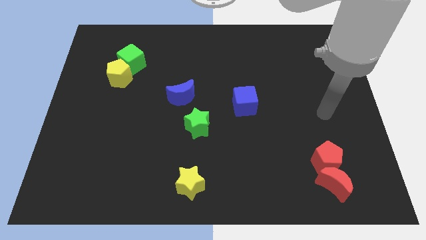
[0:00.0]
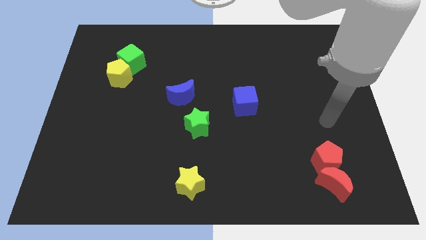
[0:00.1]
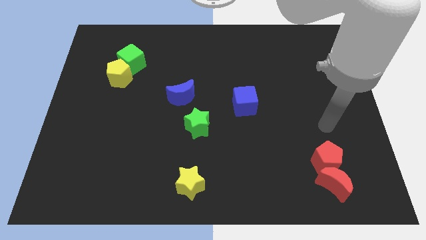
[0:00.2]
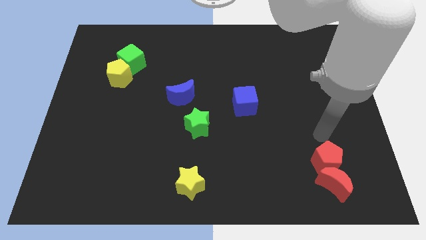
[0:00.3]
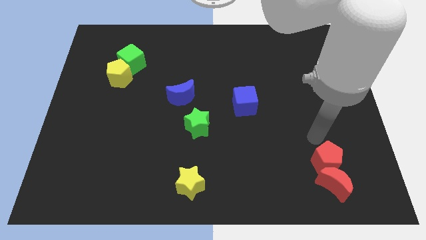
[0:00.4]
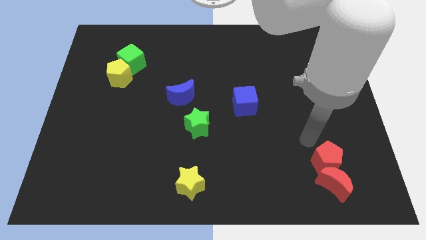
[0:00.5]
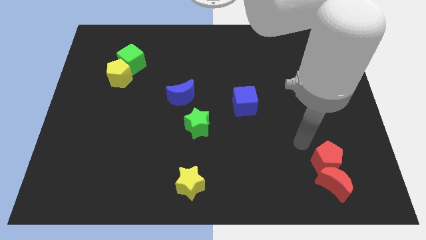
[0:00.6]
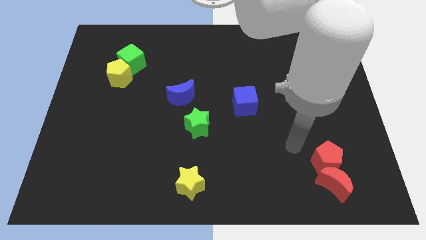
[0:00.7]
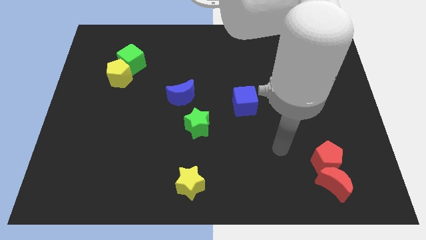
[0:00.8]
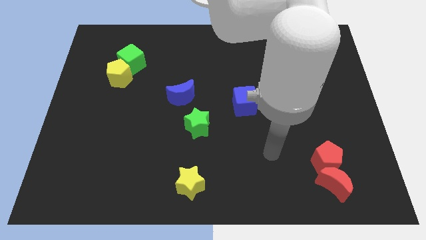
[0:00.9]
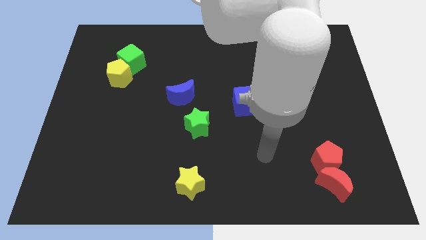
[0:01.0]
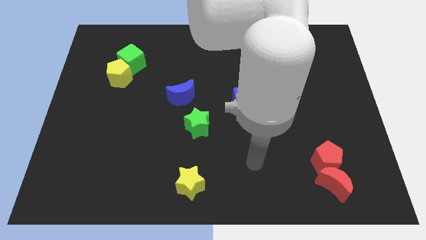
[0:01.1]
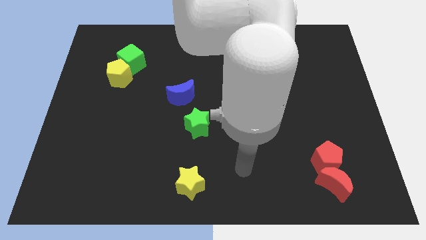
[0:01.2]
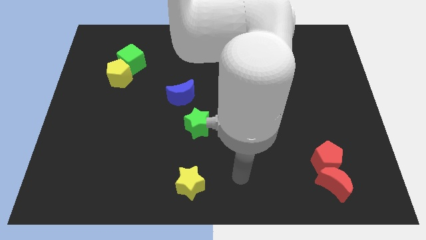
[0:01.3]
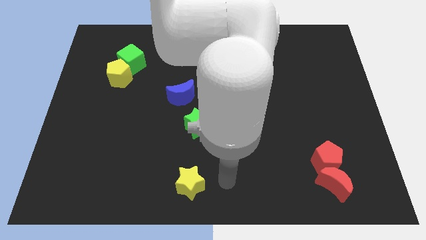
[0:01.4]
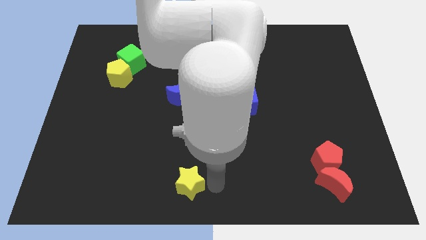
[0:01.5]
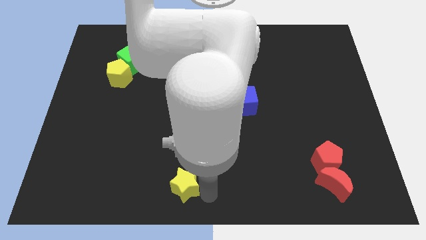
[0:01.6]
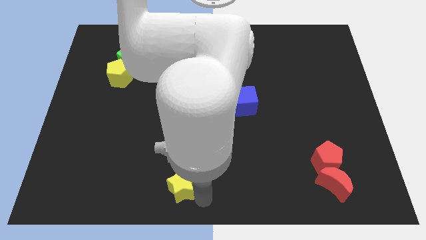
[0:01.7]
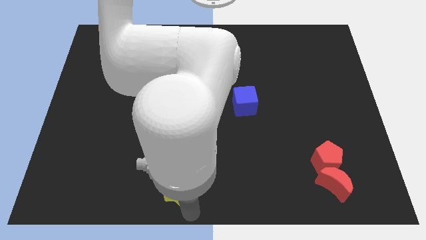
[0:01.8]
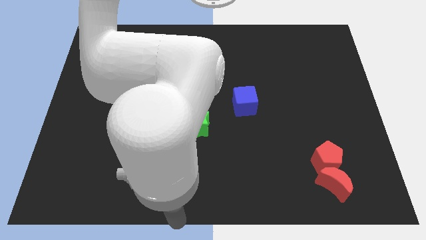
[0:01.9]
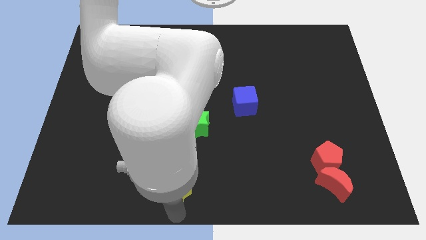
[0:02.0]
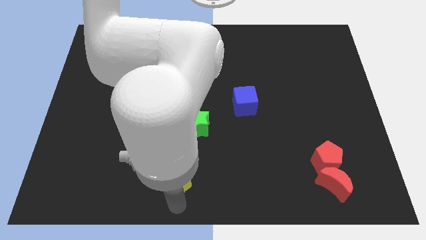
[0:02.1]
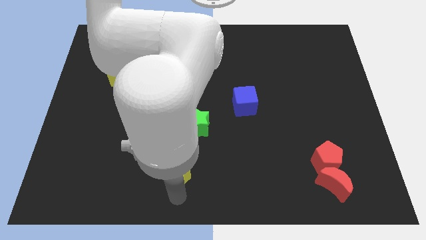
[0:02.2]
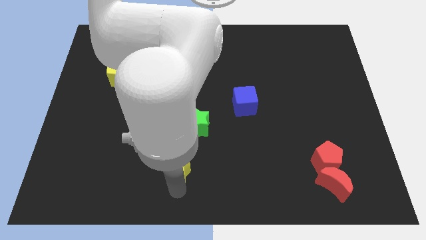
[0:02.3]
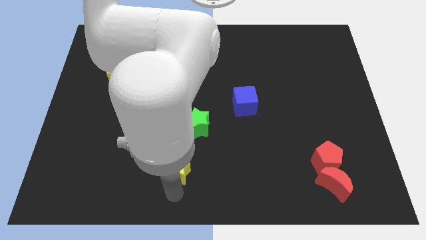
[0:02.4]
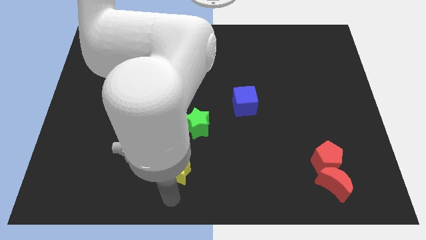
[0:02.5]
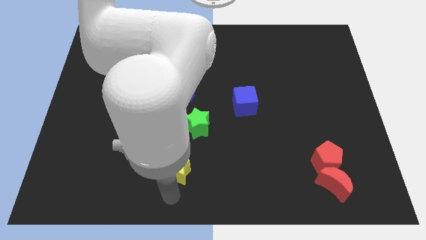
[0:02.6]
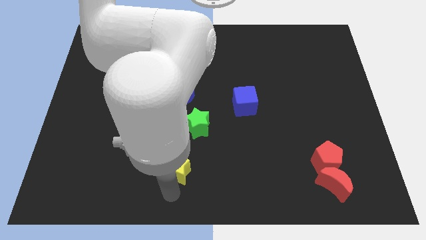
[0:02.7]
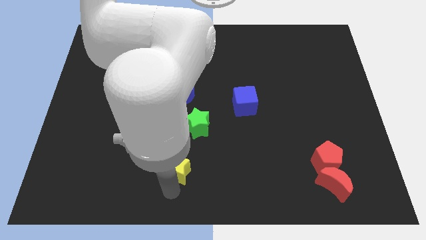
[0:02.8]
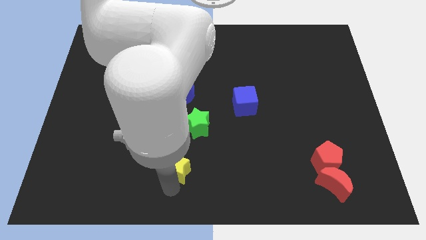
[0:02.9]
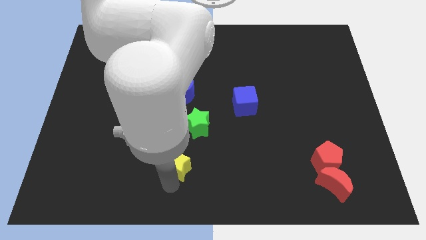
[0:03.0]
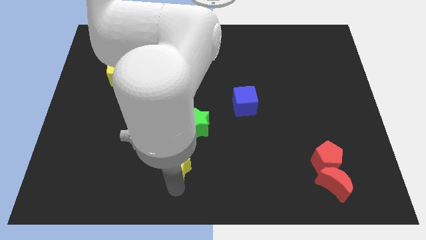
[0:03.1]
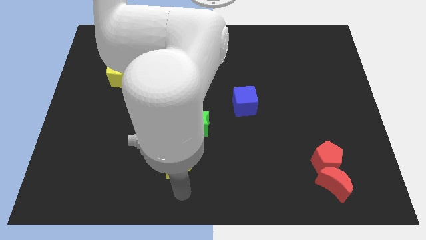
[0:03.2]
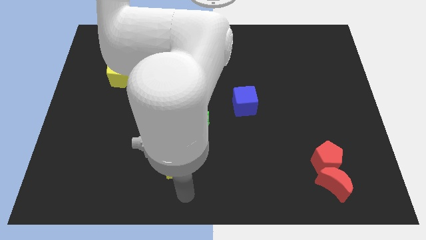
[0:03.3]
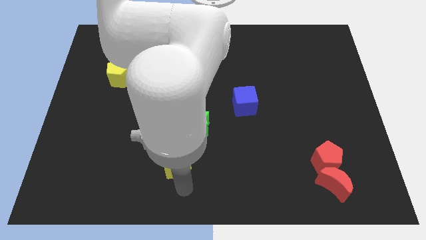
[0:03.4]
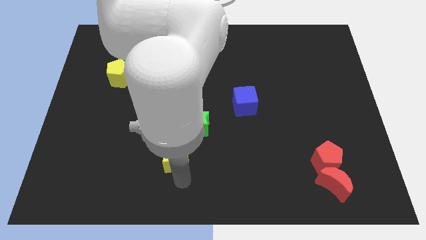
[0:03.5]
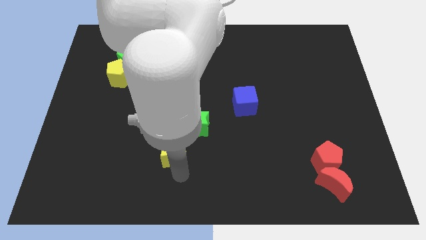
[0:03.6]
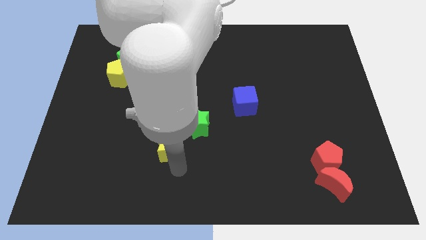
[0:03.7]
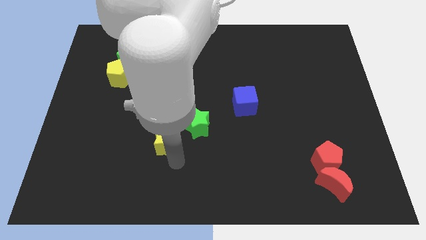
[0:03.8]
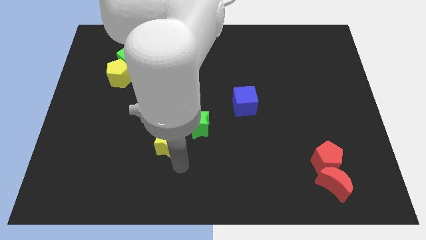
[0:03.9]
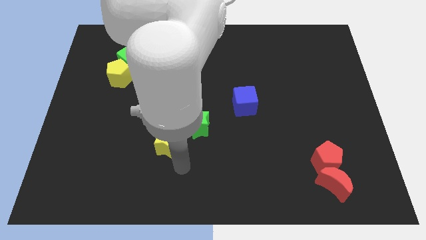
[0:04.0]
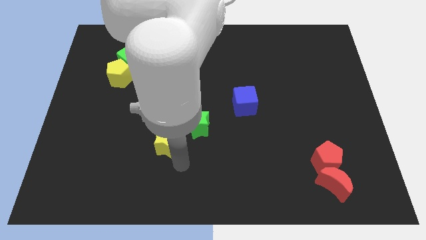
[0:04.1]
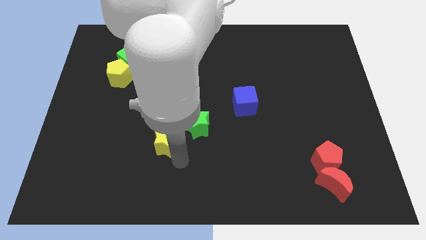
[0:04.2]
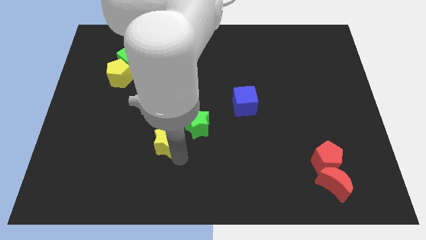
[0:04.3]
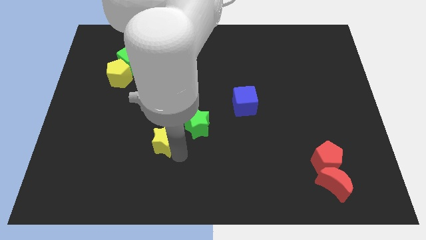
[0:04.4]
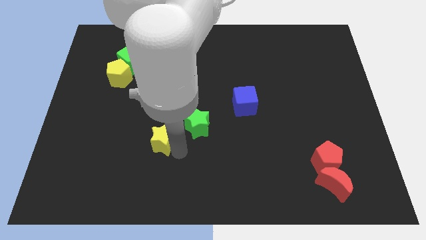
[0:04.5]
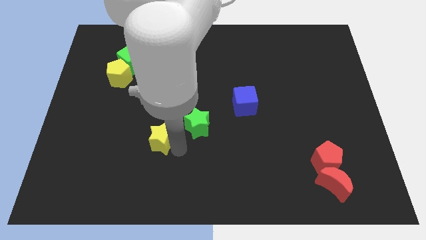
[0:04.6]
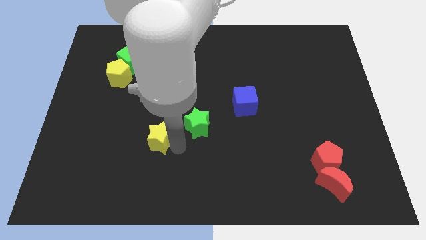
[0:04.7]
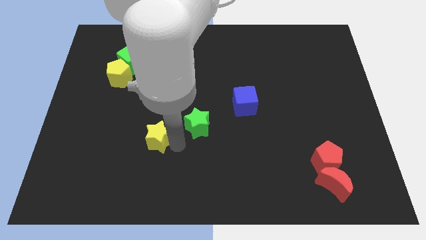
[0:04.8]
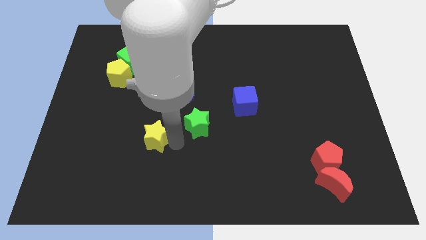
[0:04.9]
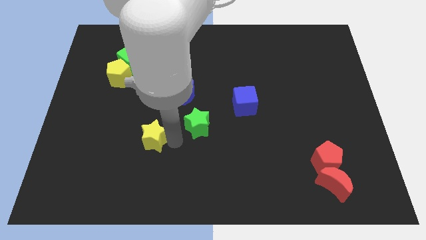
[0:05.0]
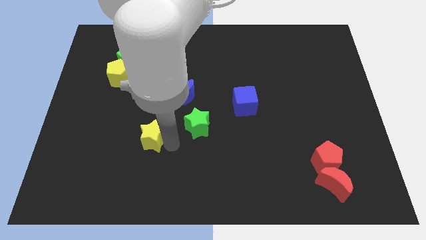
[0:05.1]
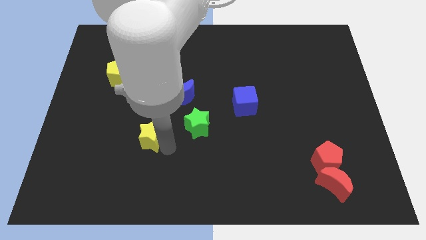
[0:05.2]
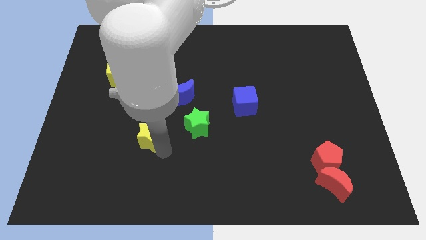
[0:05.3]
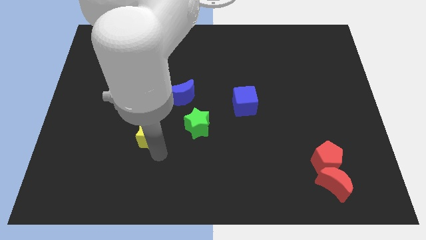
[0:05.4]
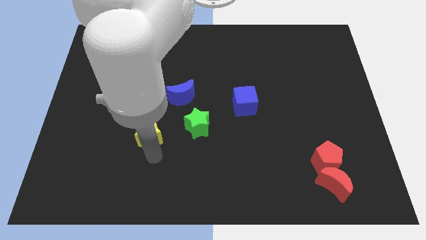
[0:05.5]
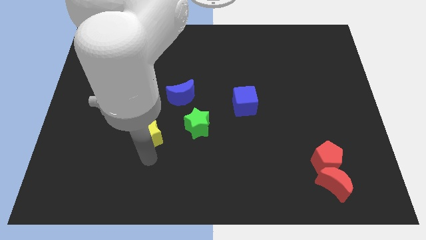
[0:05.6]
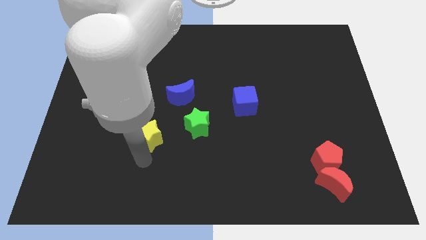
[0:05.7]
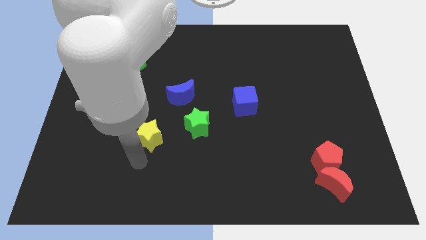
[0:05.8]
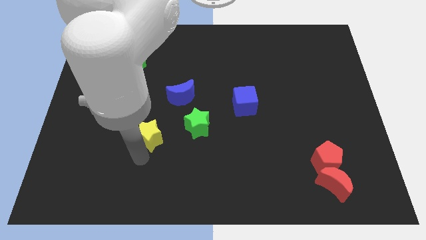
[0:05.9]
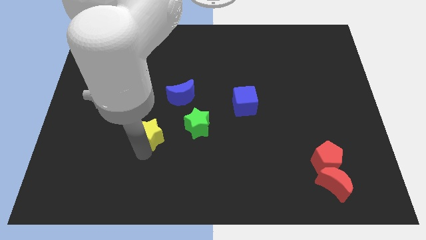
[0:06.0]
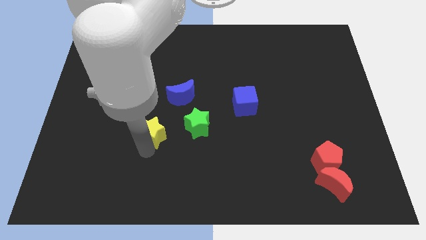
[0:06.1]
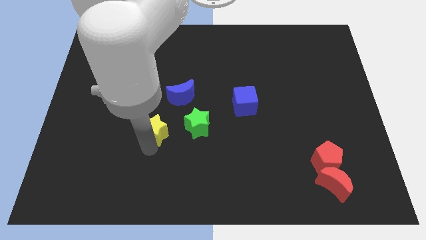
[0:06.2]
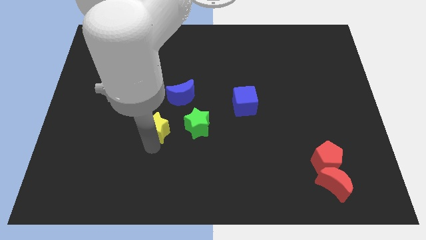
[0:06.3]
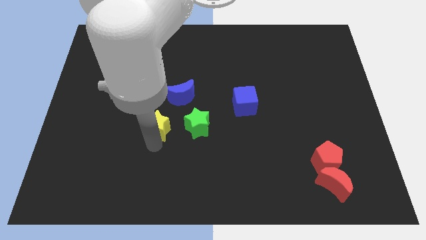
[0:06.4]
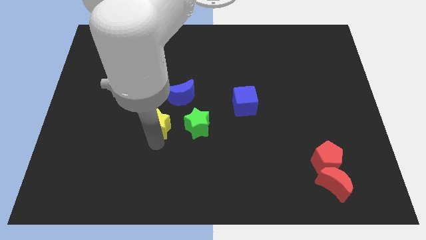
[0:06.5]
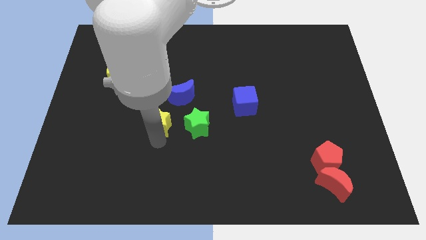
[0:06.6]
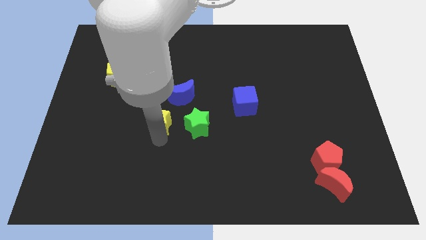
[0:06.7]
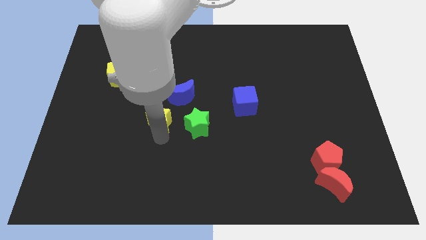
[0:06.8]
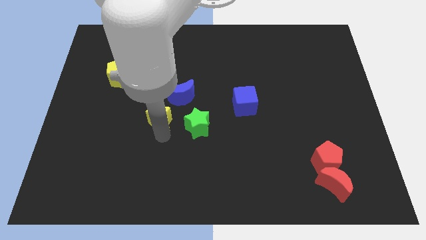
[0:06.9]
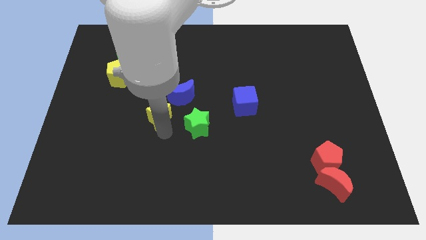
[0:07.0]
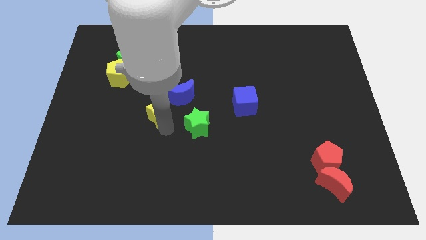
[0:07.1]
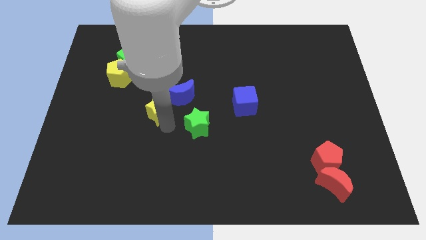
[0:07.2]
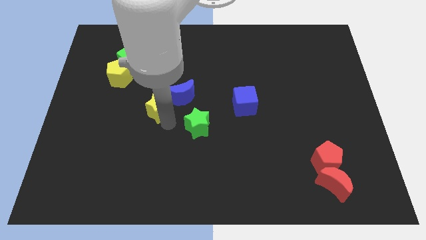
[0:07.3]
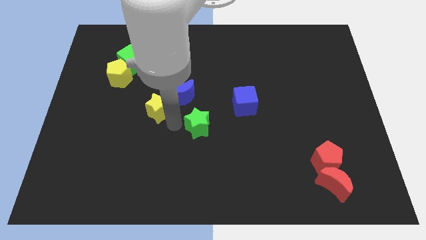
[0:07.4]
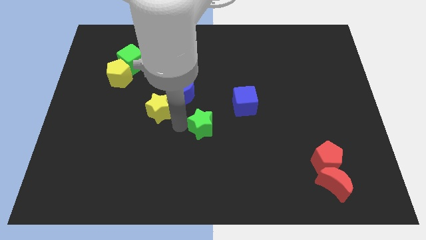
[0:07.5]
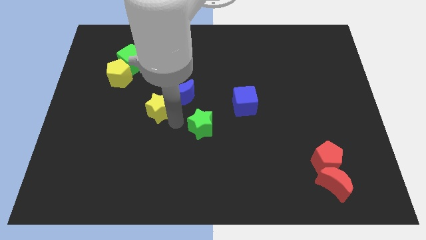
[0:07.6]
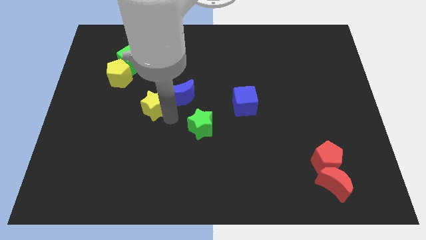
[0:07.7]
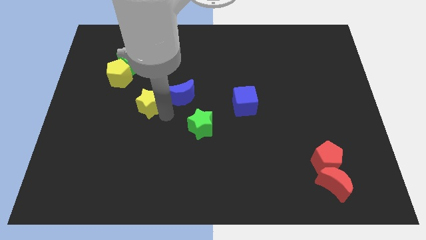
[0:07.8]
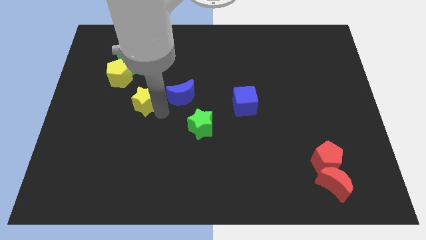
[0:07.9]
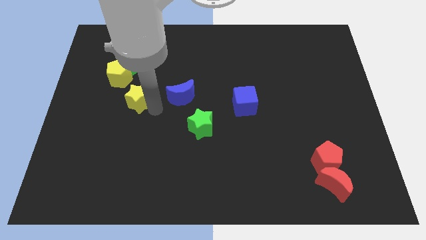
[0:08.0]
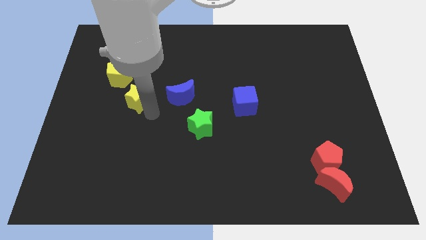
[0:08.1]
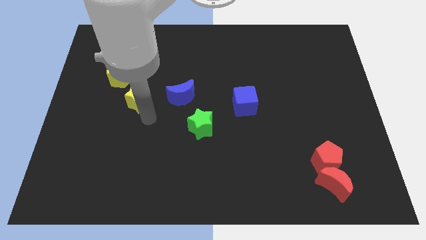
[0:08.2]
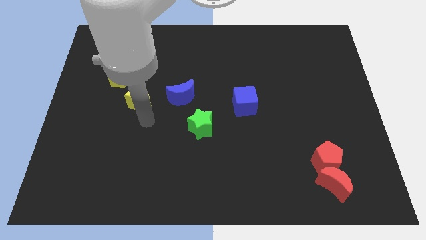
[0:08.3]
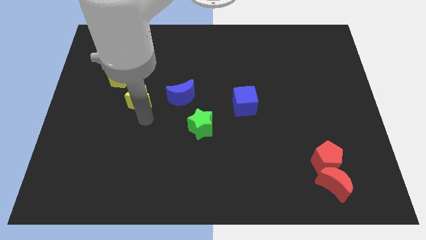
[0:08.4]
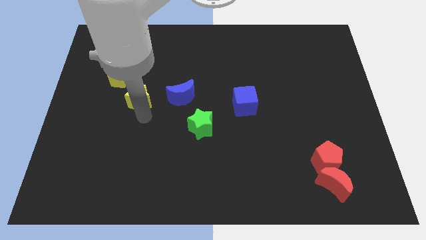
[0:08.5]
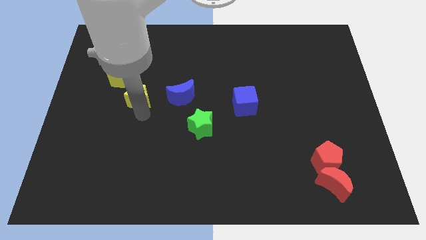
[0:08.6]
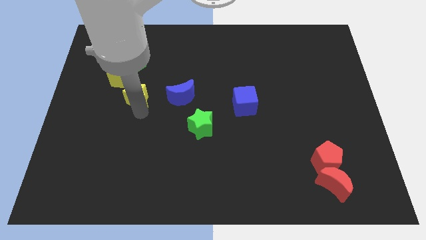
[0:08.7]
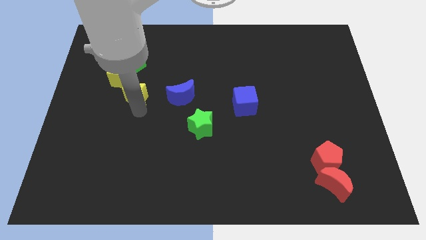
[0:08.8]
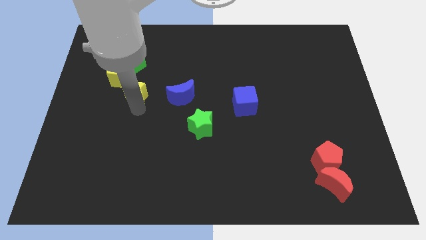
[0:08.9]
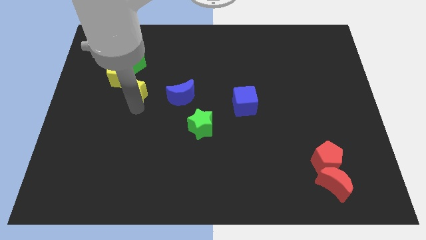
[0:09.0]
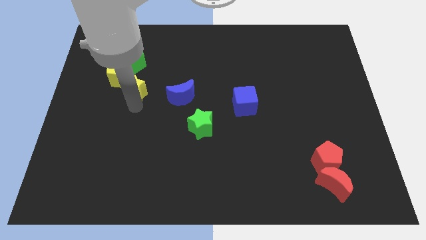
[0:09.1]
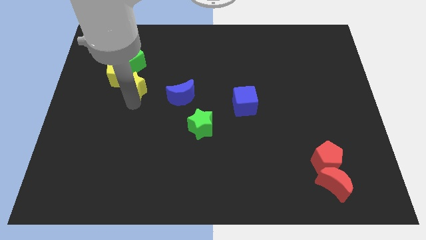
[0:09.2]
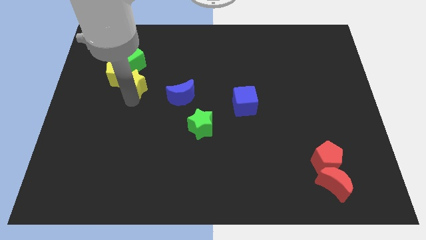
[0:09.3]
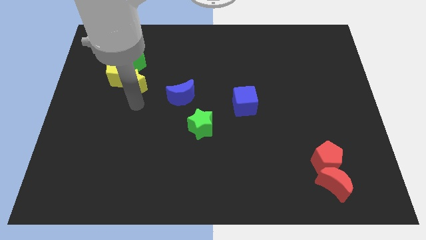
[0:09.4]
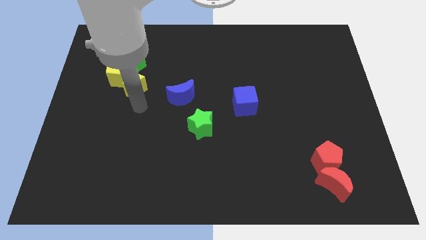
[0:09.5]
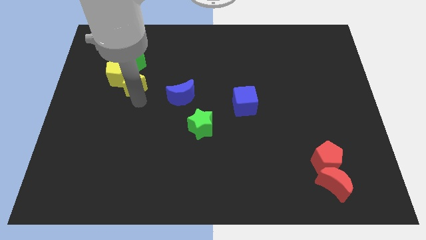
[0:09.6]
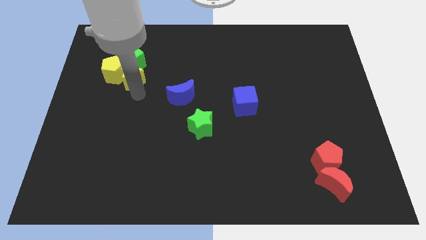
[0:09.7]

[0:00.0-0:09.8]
slide the yellow star towards the green cube
